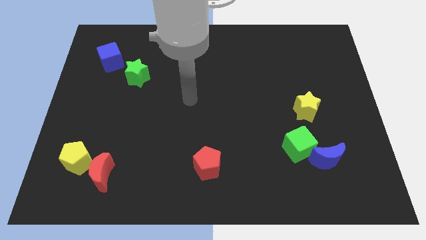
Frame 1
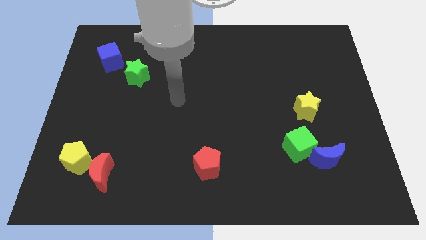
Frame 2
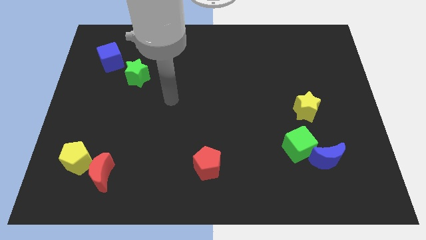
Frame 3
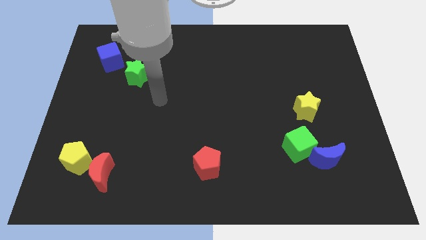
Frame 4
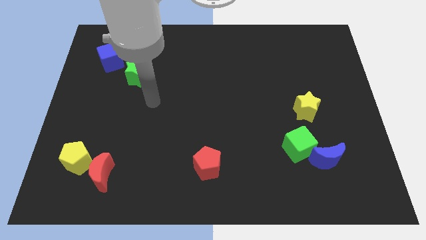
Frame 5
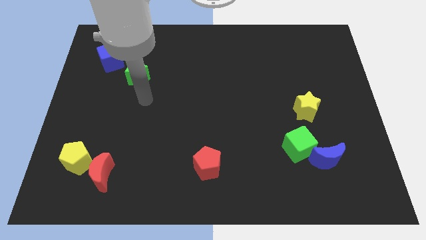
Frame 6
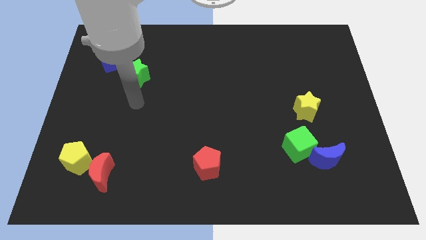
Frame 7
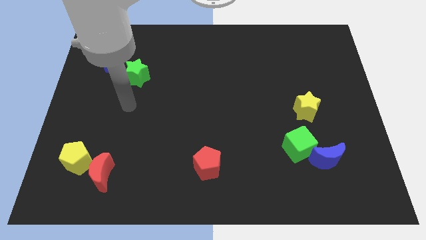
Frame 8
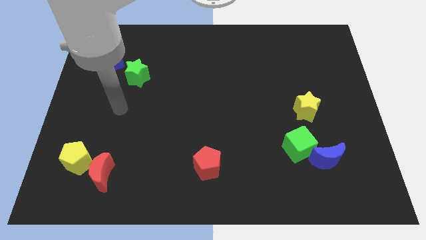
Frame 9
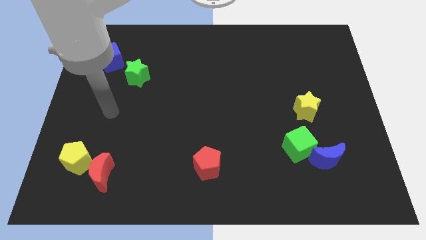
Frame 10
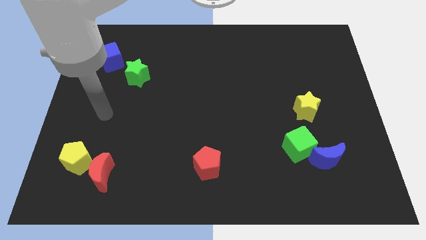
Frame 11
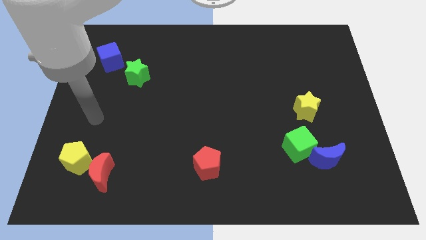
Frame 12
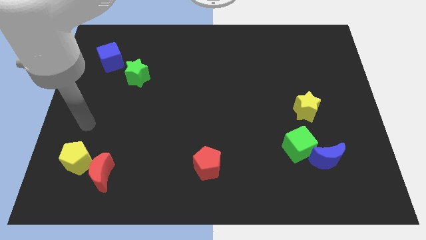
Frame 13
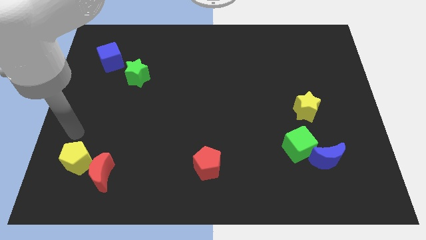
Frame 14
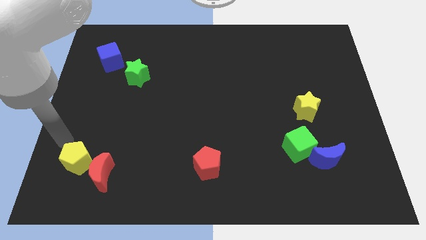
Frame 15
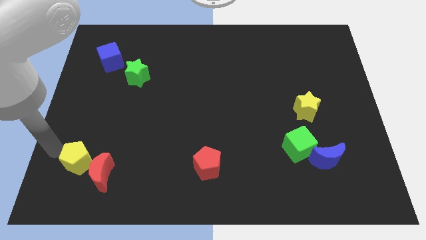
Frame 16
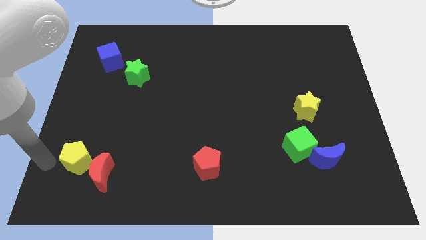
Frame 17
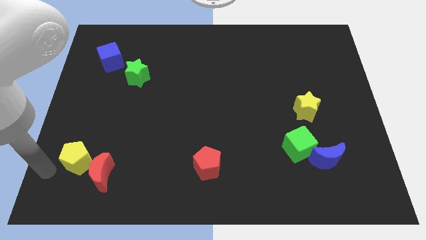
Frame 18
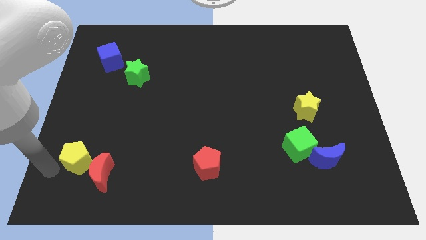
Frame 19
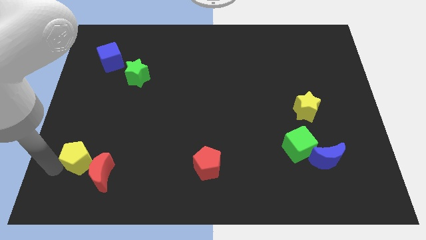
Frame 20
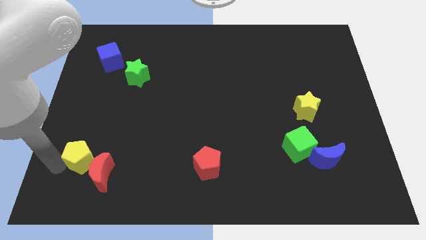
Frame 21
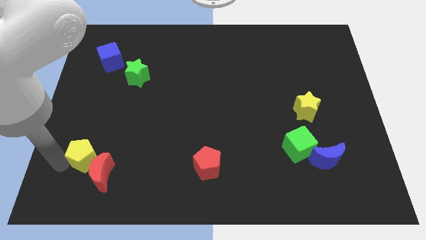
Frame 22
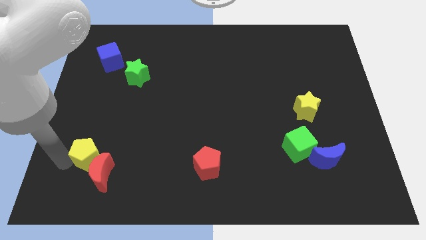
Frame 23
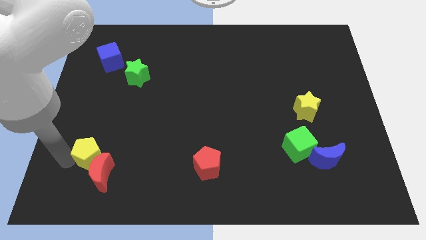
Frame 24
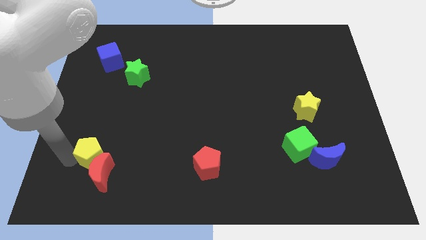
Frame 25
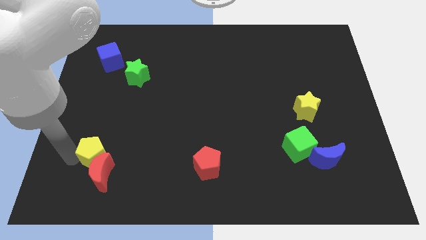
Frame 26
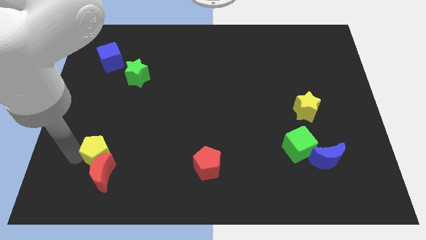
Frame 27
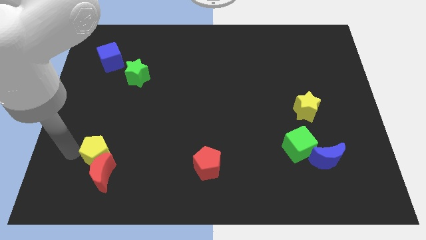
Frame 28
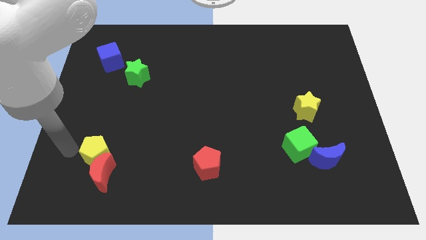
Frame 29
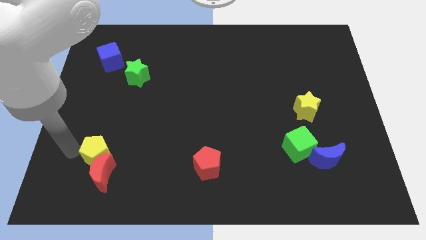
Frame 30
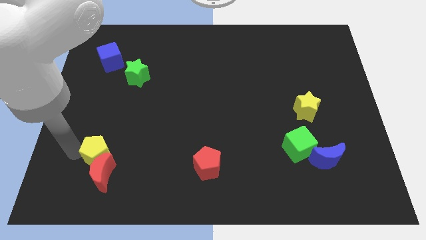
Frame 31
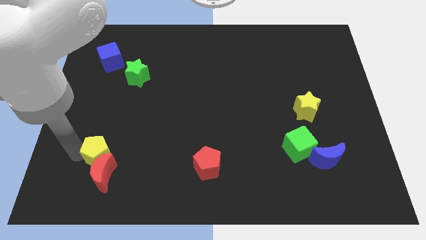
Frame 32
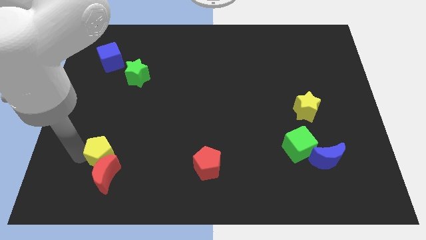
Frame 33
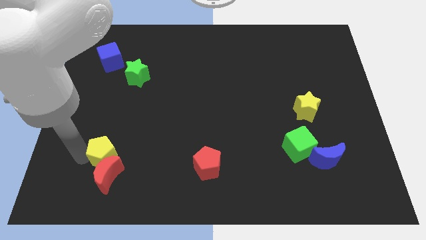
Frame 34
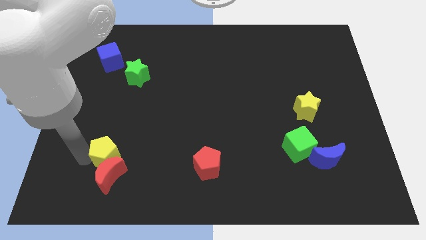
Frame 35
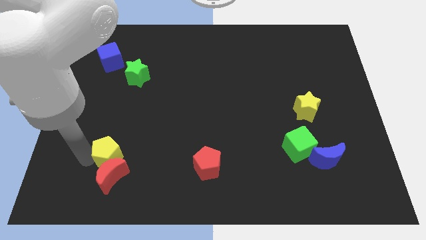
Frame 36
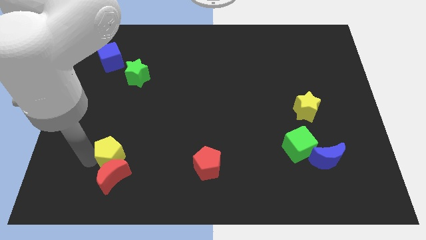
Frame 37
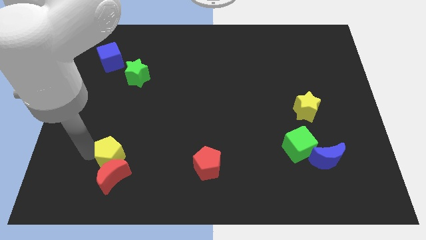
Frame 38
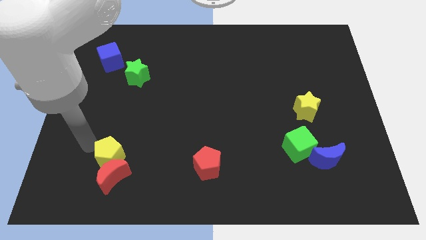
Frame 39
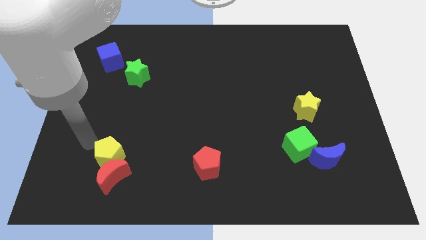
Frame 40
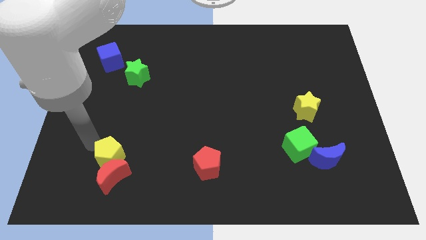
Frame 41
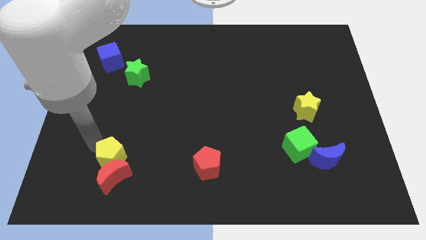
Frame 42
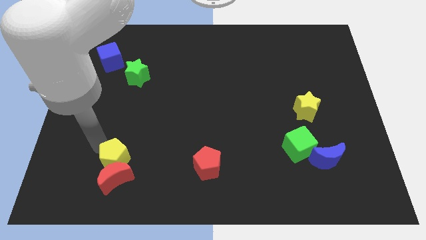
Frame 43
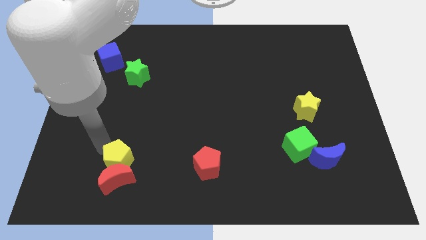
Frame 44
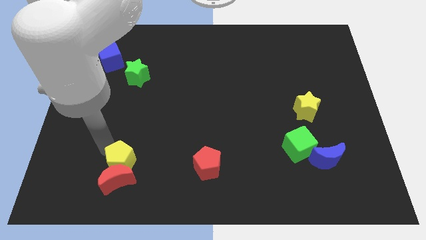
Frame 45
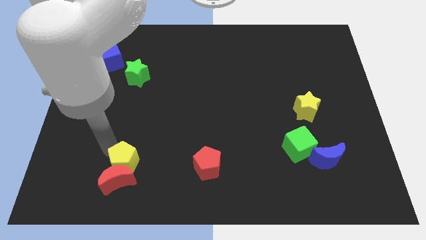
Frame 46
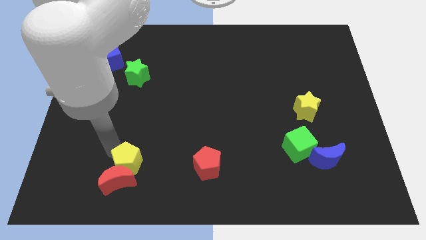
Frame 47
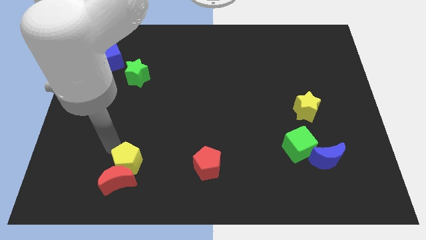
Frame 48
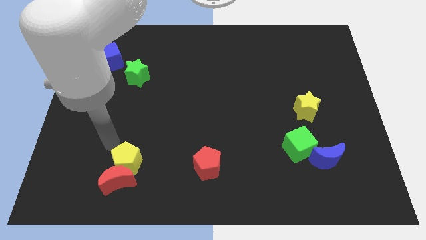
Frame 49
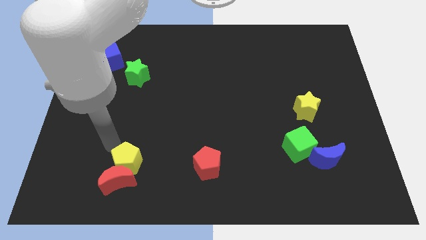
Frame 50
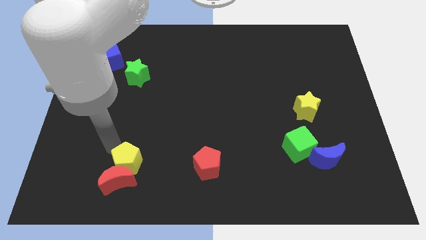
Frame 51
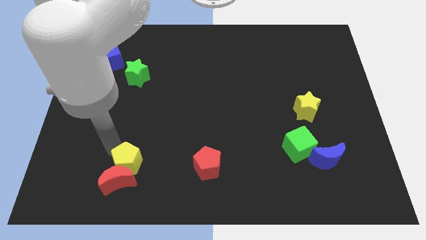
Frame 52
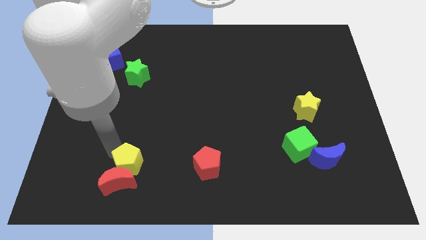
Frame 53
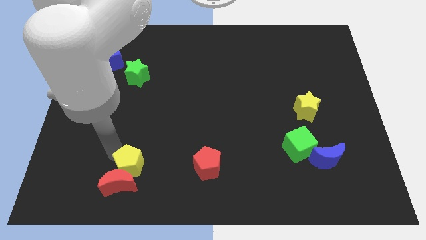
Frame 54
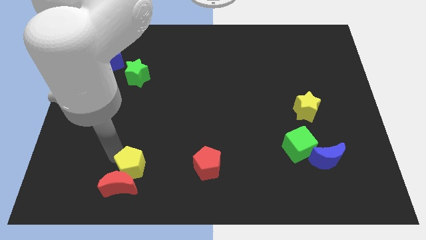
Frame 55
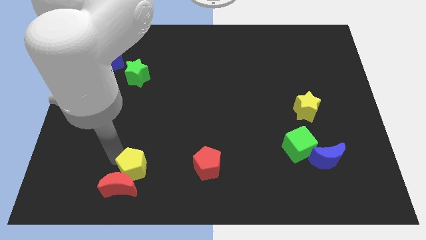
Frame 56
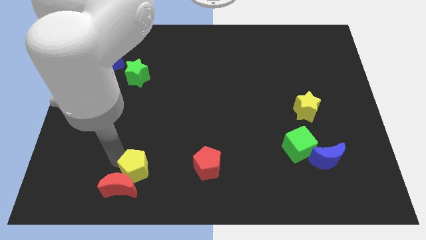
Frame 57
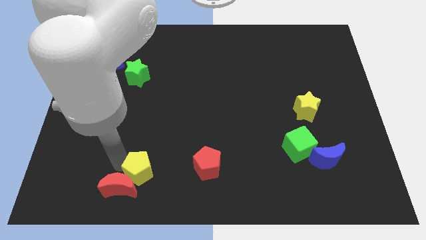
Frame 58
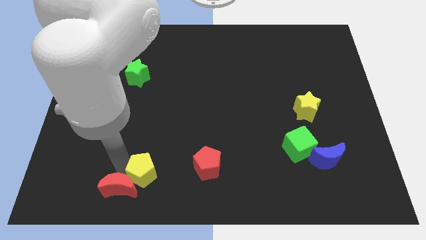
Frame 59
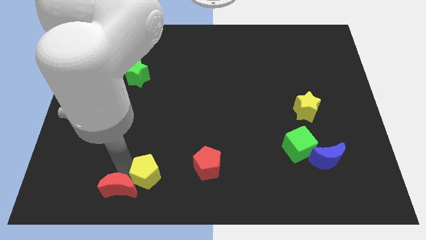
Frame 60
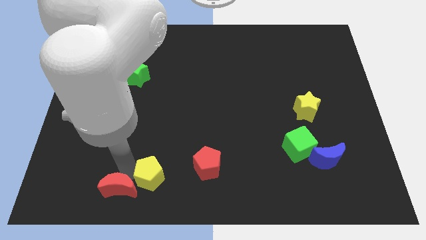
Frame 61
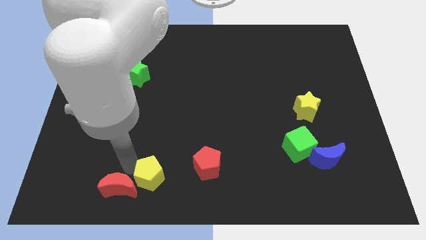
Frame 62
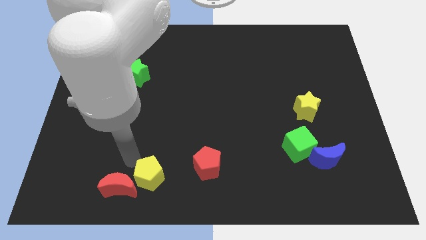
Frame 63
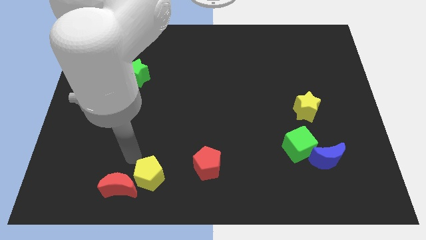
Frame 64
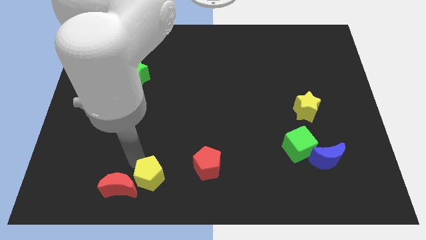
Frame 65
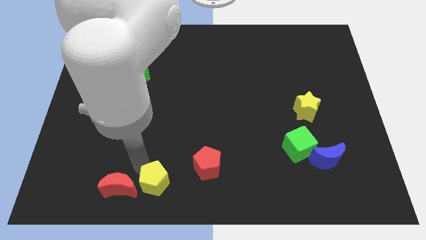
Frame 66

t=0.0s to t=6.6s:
put the yellow pentagon to the bottom

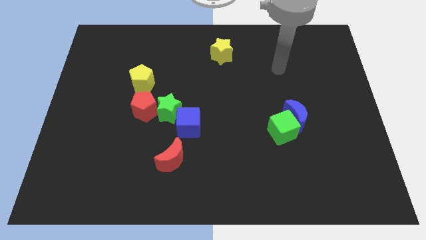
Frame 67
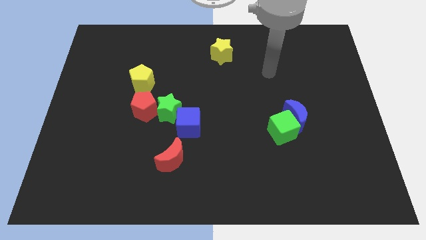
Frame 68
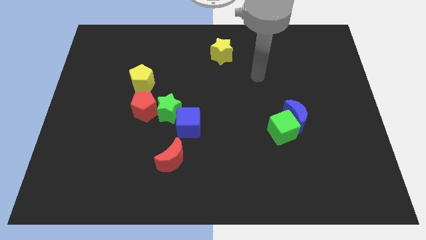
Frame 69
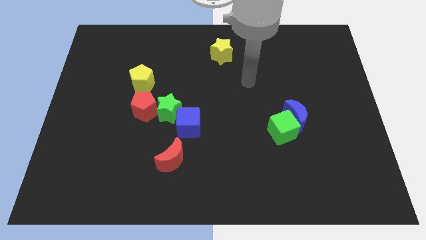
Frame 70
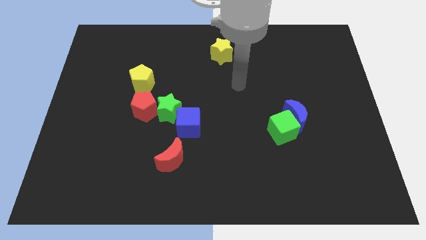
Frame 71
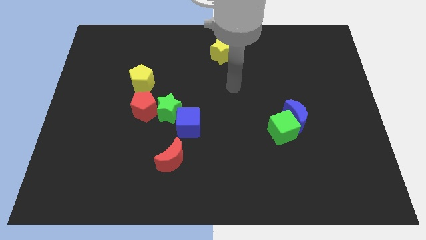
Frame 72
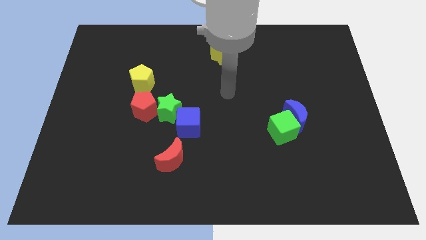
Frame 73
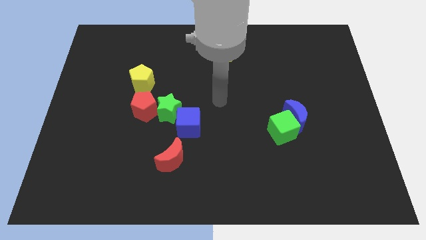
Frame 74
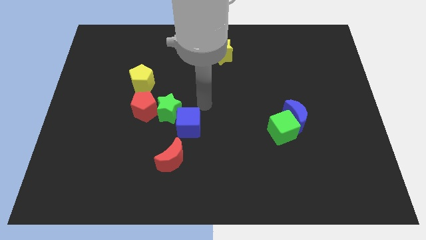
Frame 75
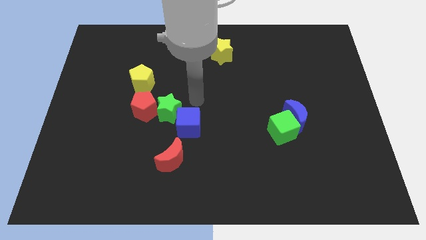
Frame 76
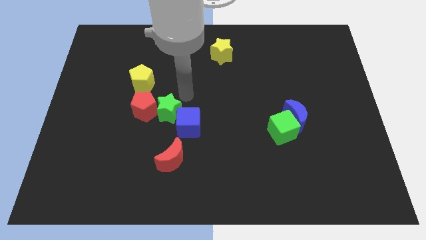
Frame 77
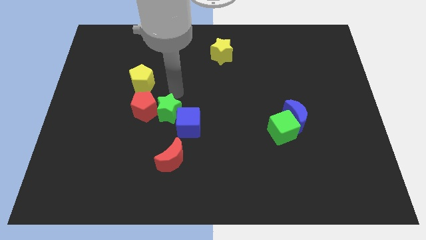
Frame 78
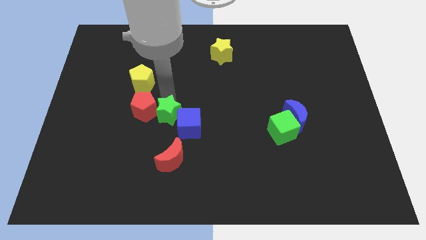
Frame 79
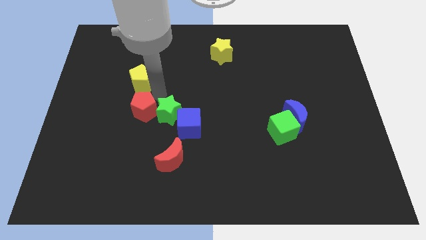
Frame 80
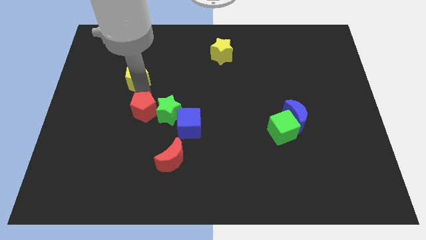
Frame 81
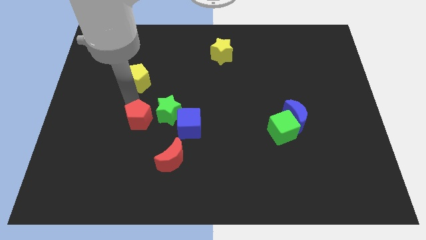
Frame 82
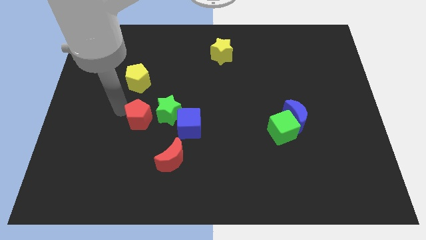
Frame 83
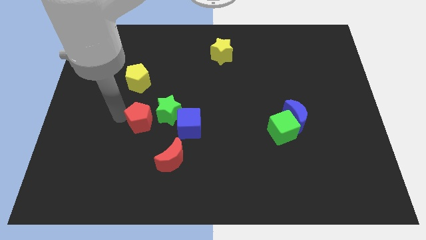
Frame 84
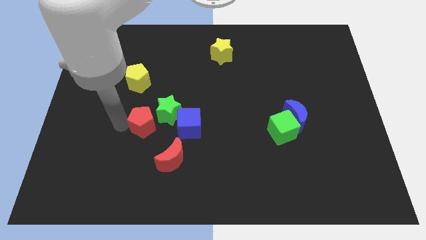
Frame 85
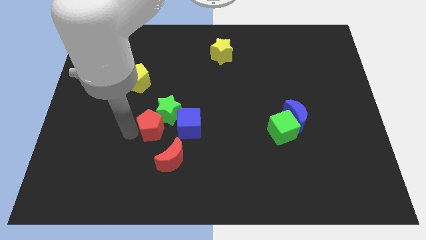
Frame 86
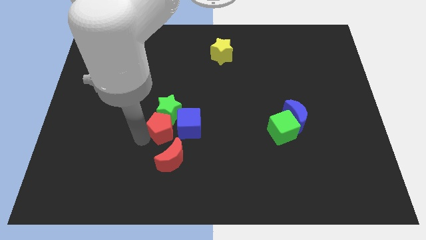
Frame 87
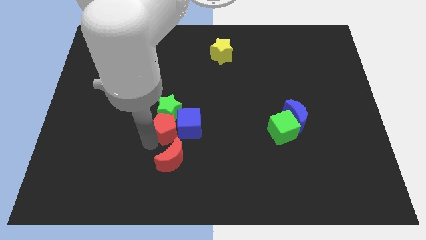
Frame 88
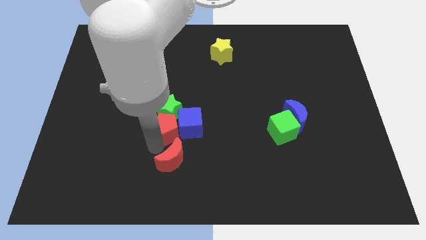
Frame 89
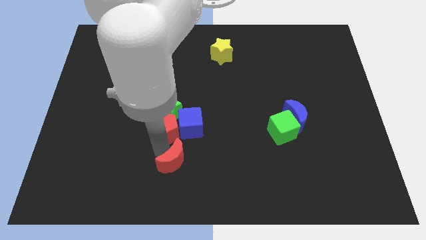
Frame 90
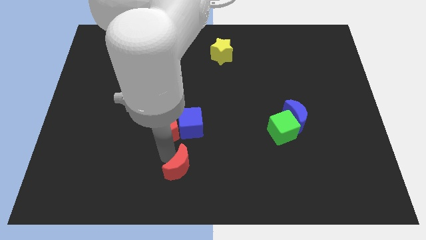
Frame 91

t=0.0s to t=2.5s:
push the red moon to the bottom
